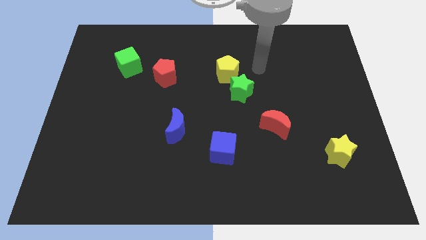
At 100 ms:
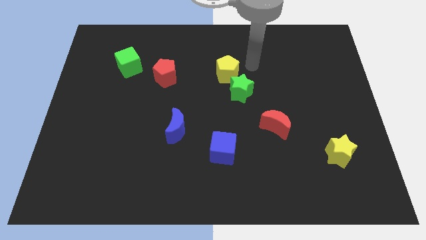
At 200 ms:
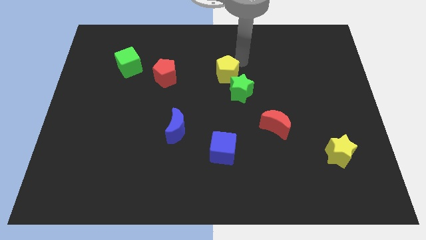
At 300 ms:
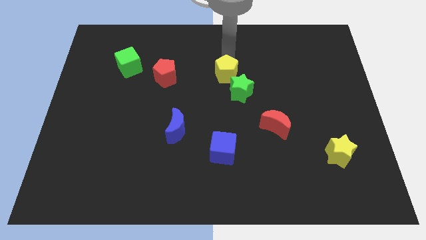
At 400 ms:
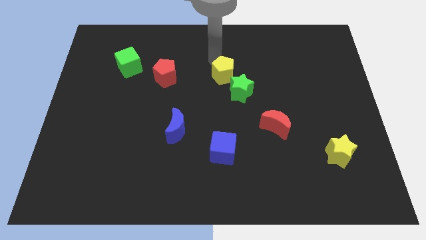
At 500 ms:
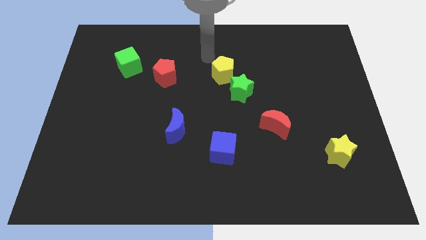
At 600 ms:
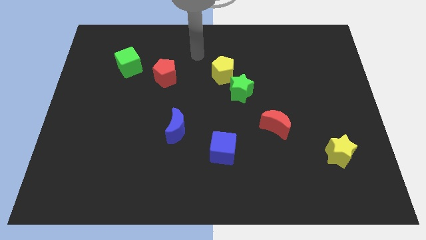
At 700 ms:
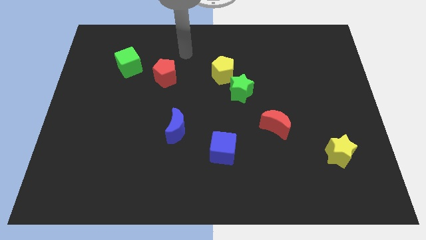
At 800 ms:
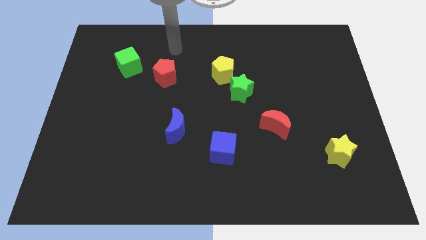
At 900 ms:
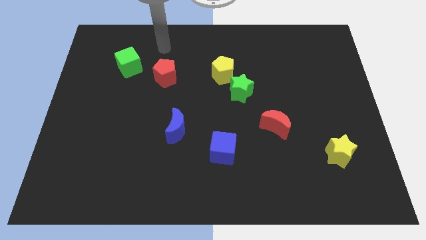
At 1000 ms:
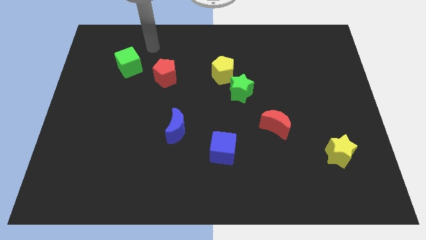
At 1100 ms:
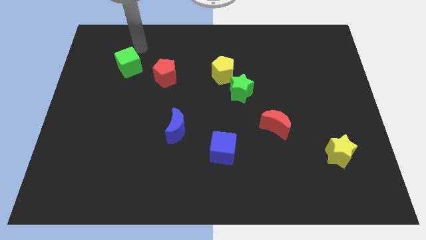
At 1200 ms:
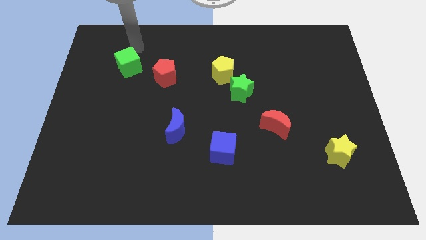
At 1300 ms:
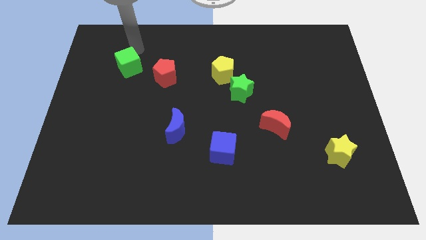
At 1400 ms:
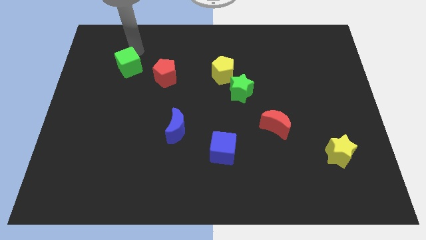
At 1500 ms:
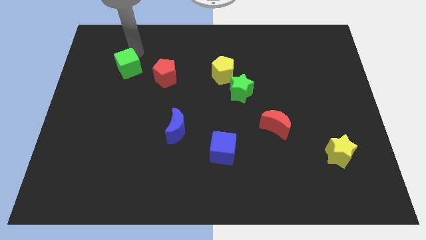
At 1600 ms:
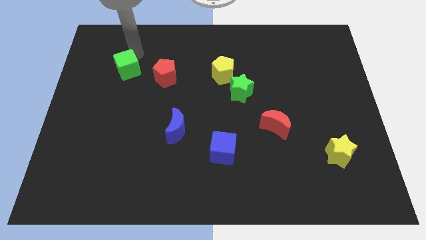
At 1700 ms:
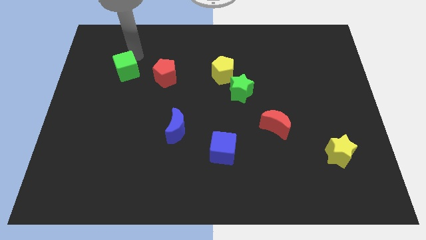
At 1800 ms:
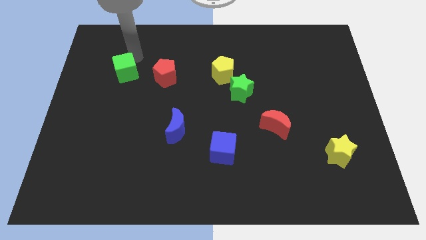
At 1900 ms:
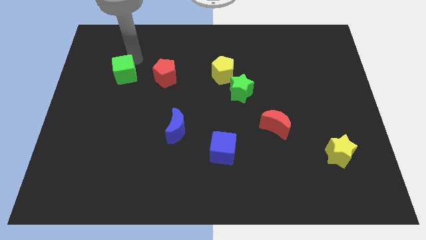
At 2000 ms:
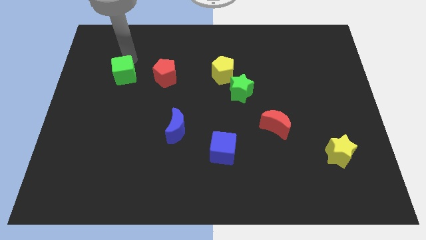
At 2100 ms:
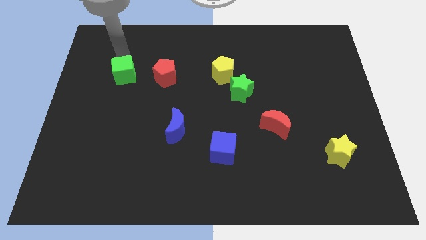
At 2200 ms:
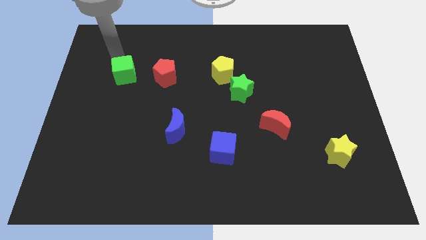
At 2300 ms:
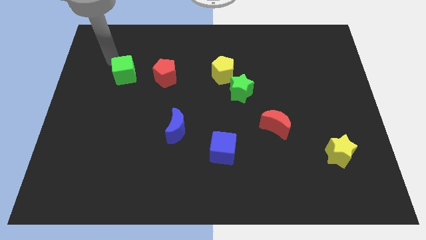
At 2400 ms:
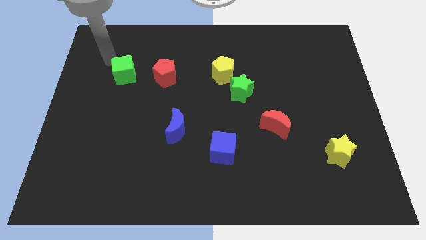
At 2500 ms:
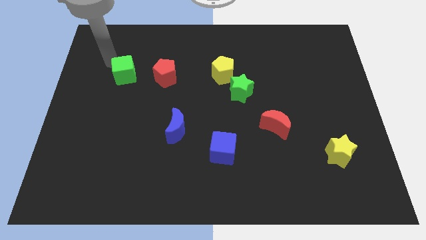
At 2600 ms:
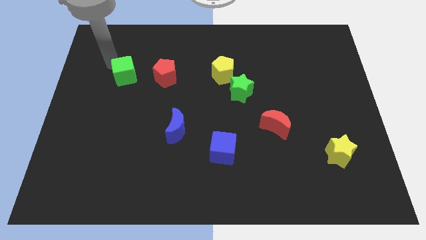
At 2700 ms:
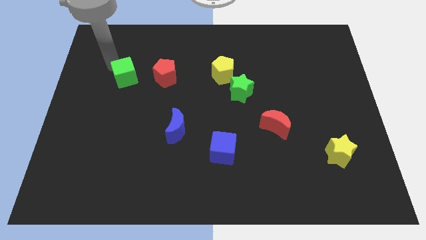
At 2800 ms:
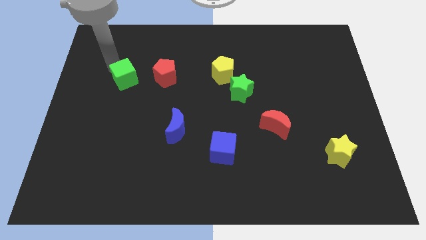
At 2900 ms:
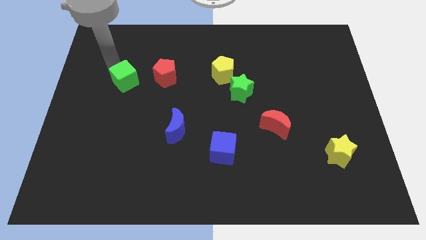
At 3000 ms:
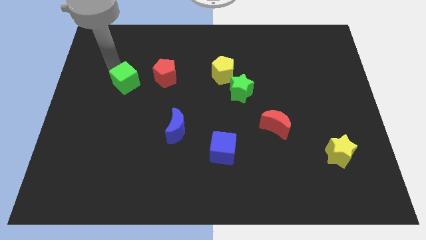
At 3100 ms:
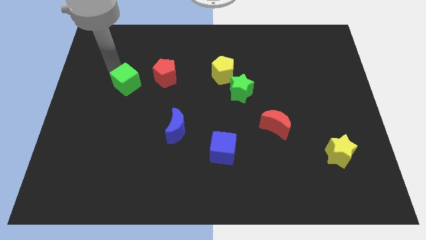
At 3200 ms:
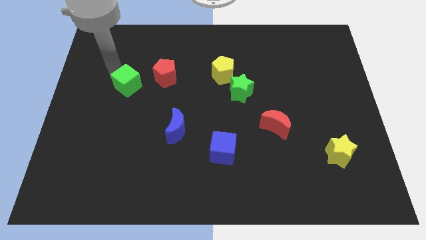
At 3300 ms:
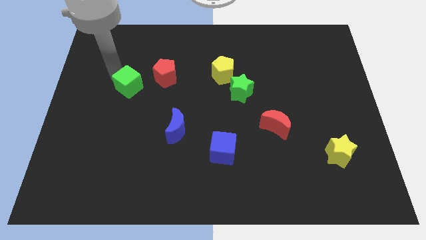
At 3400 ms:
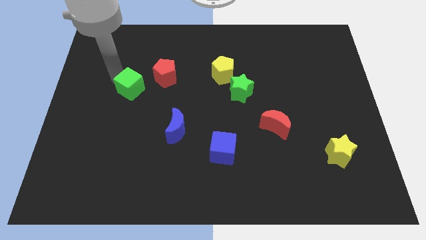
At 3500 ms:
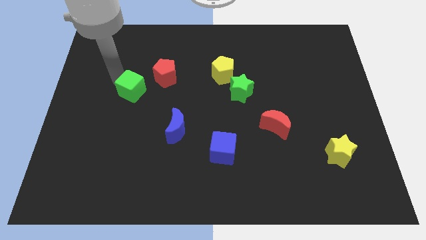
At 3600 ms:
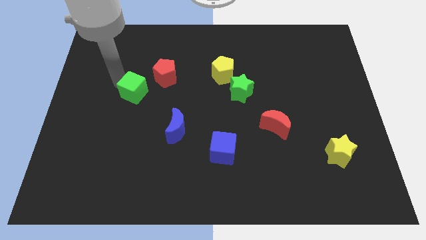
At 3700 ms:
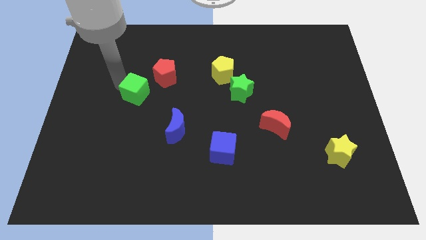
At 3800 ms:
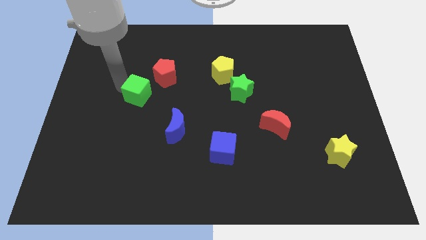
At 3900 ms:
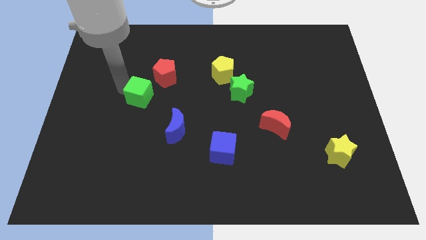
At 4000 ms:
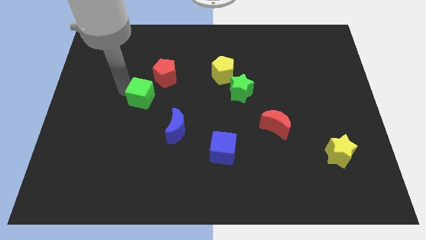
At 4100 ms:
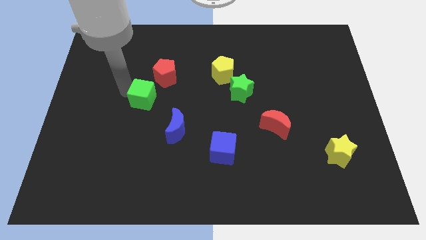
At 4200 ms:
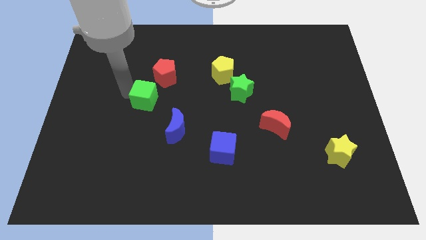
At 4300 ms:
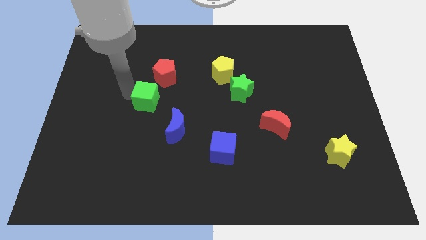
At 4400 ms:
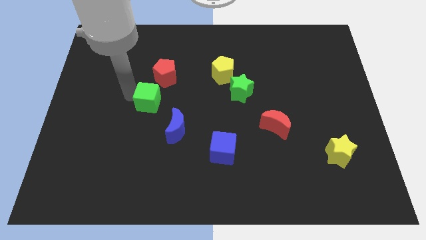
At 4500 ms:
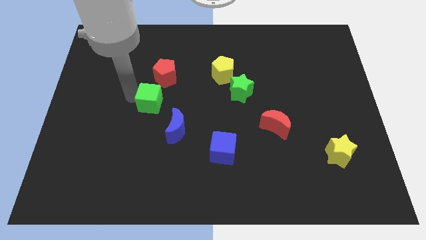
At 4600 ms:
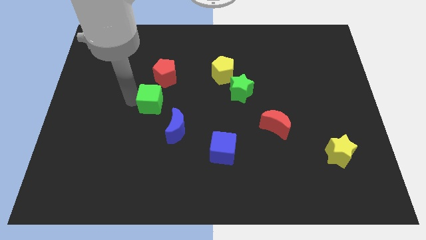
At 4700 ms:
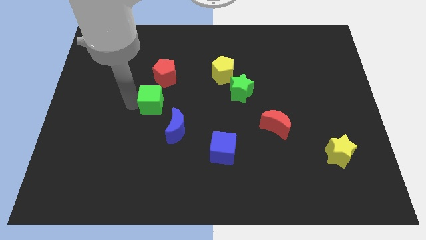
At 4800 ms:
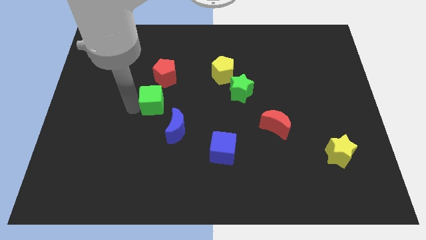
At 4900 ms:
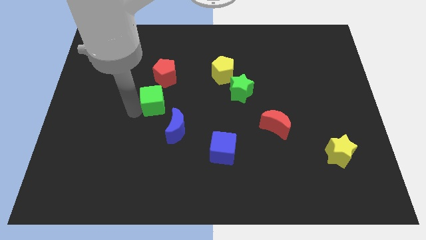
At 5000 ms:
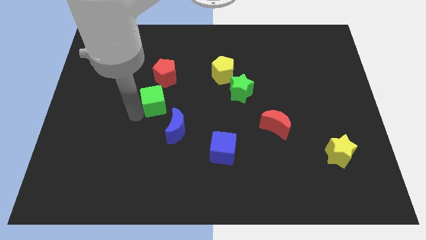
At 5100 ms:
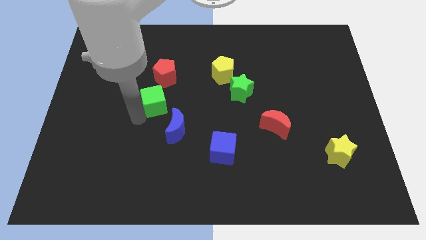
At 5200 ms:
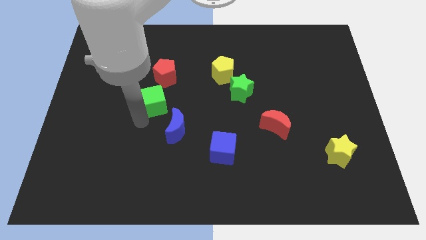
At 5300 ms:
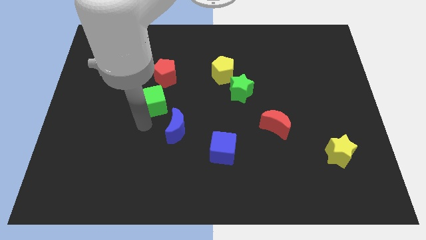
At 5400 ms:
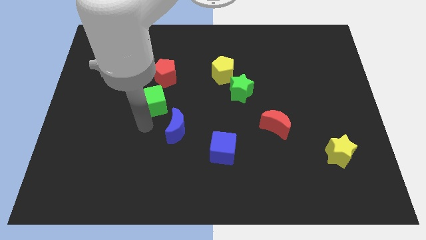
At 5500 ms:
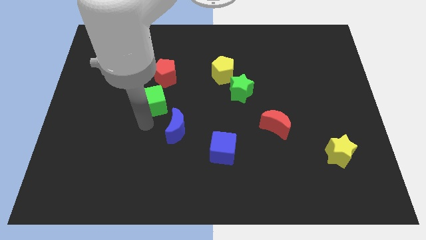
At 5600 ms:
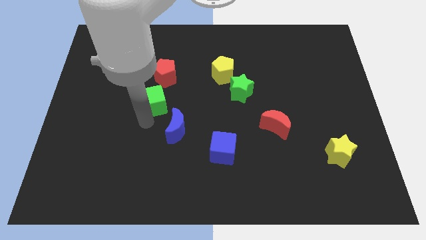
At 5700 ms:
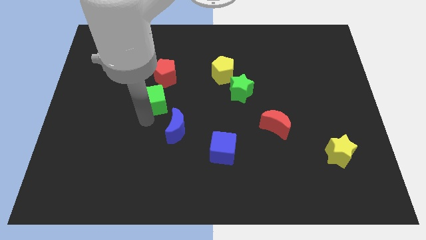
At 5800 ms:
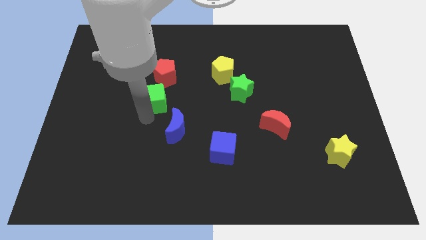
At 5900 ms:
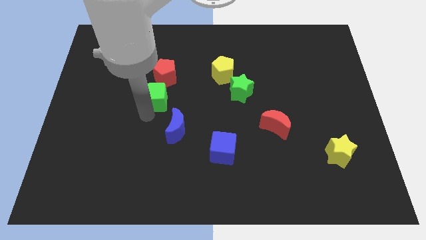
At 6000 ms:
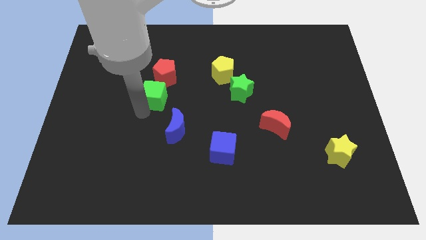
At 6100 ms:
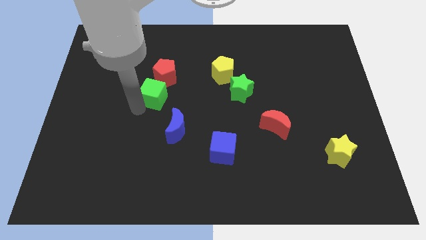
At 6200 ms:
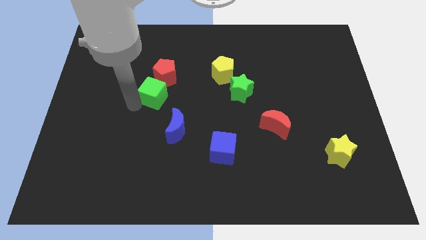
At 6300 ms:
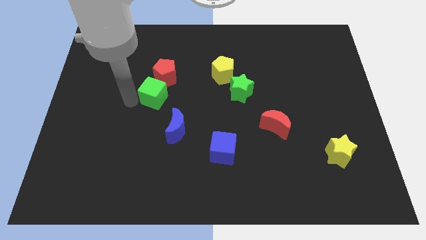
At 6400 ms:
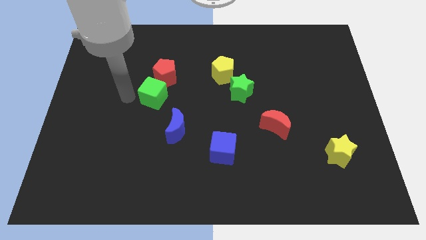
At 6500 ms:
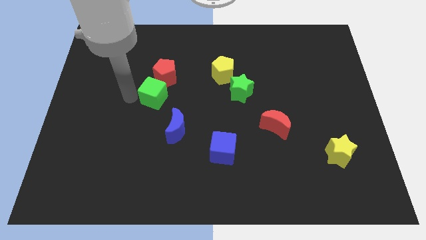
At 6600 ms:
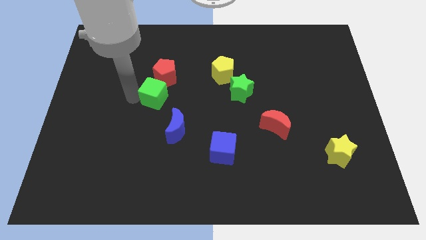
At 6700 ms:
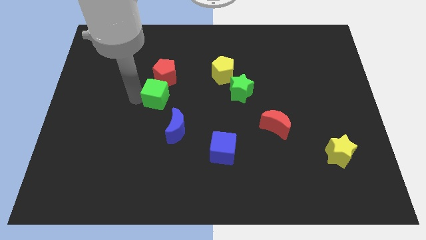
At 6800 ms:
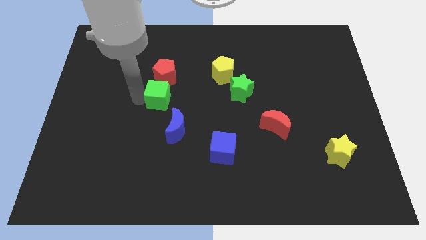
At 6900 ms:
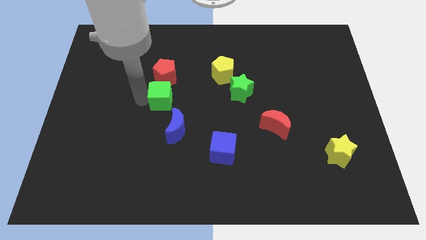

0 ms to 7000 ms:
slide the green cube to the center of the board

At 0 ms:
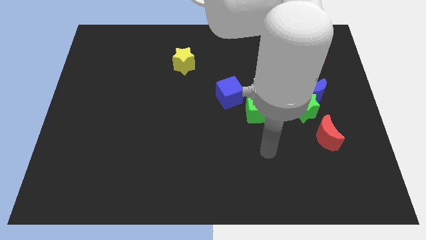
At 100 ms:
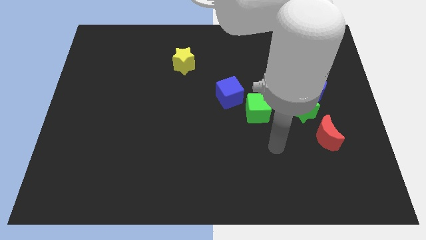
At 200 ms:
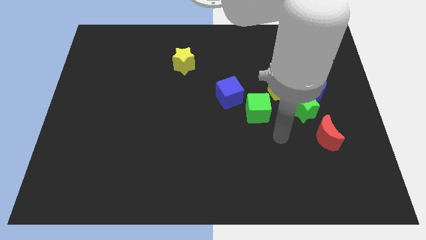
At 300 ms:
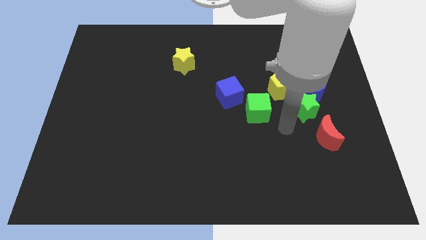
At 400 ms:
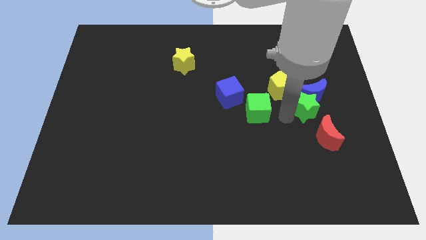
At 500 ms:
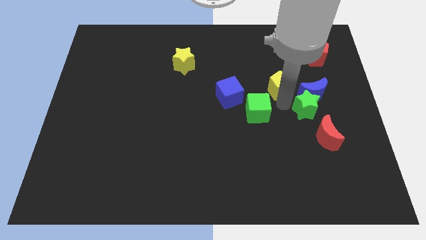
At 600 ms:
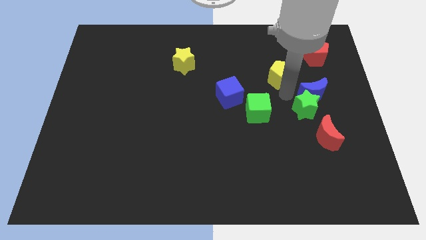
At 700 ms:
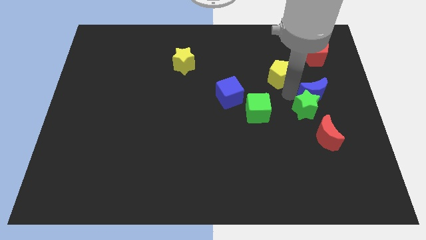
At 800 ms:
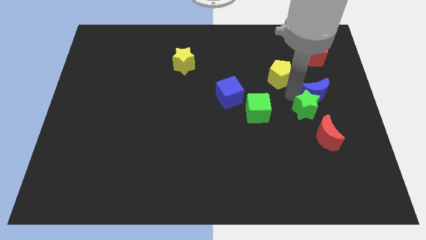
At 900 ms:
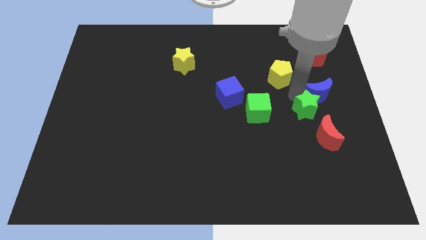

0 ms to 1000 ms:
put the blue moon to the right side
